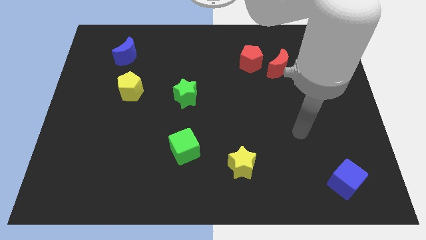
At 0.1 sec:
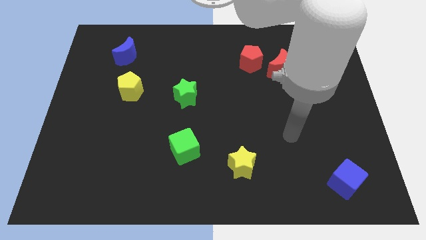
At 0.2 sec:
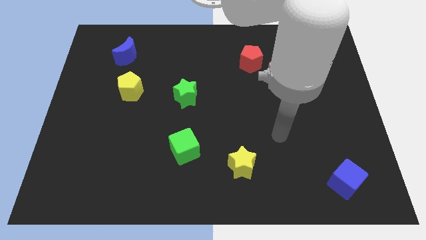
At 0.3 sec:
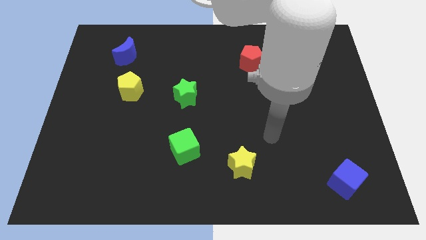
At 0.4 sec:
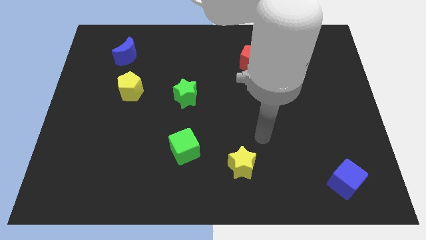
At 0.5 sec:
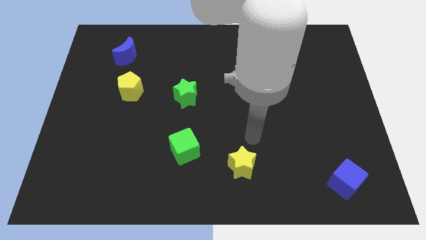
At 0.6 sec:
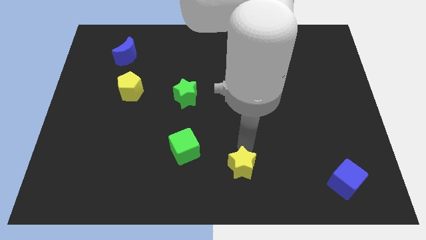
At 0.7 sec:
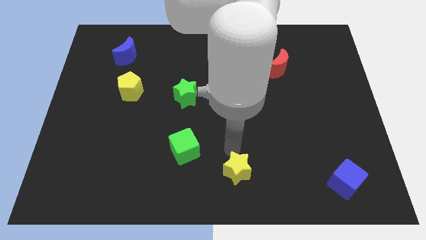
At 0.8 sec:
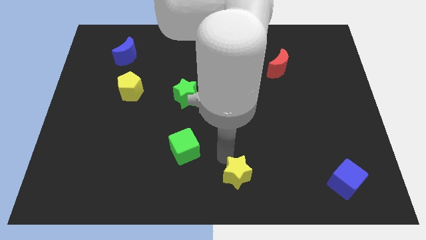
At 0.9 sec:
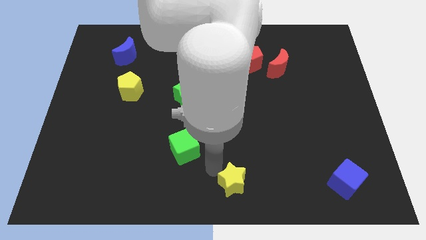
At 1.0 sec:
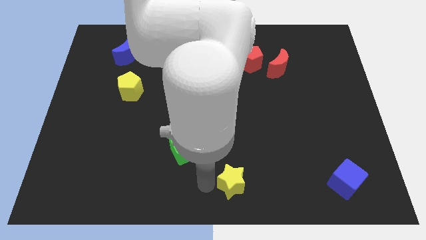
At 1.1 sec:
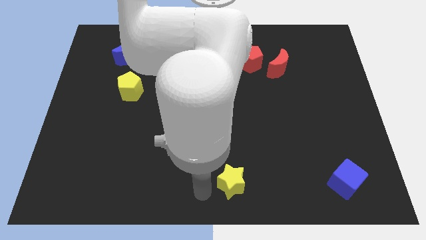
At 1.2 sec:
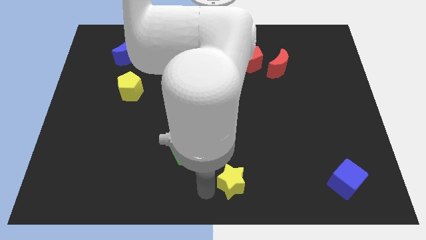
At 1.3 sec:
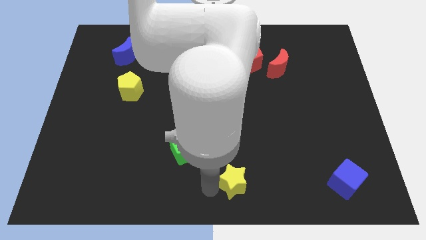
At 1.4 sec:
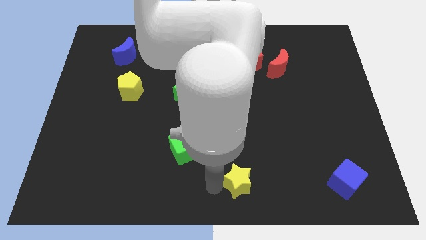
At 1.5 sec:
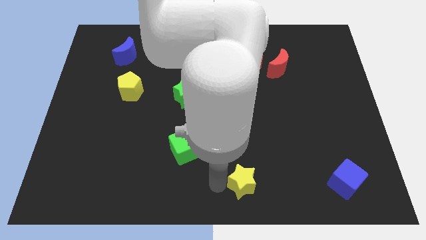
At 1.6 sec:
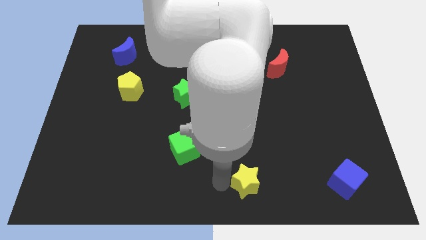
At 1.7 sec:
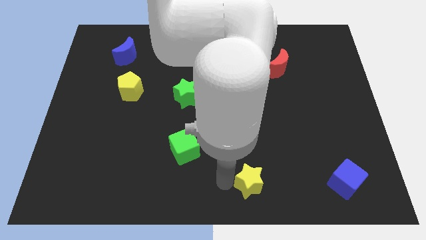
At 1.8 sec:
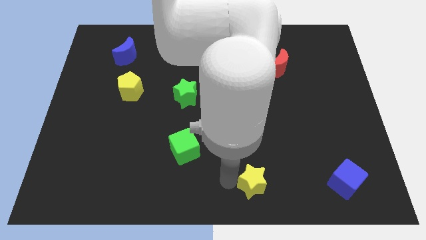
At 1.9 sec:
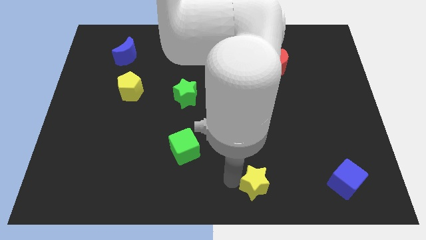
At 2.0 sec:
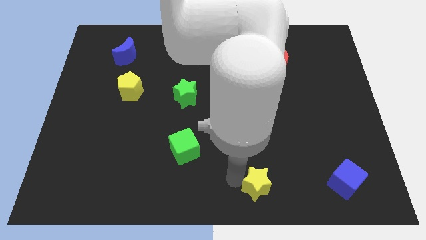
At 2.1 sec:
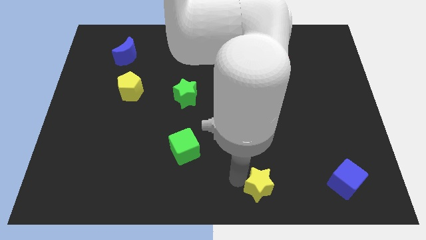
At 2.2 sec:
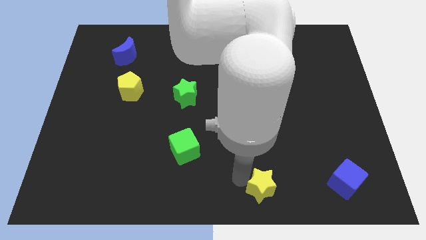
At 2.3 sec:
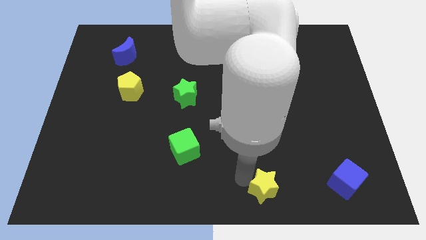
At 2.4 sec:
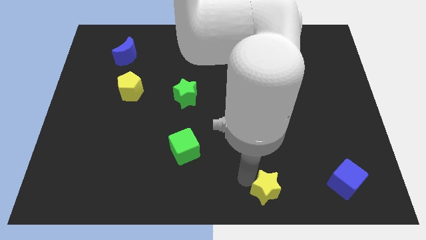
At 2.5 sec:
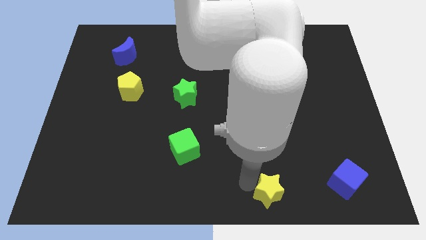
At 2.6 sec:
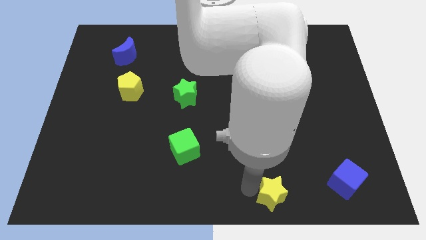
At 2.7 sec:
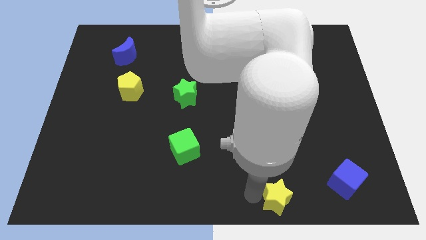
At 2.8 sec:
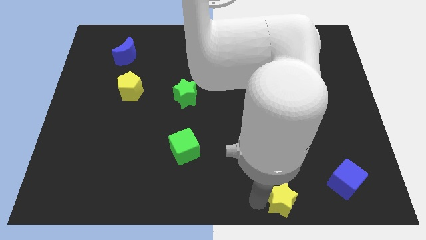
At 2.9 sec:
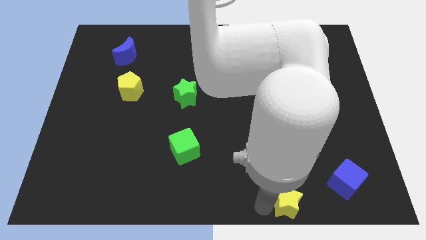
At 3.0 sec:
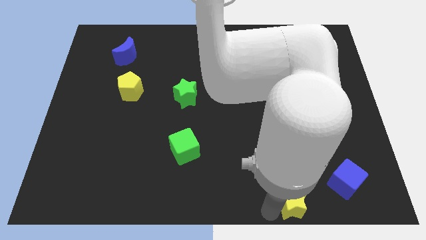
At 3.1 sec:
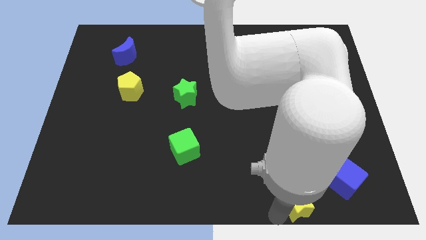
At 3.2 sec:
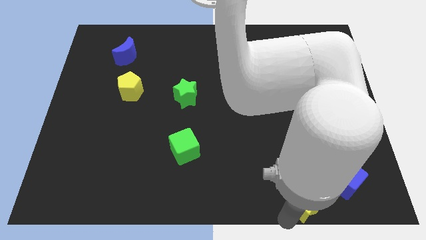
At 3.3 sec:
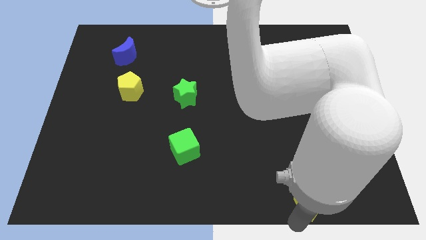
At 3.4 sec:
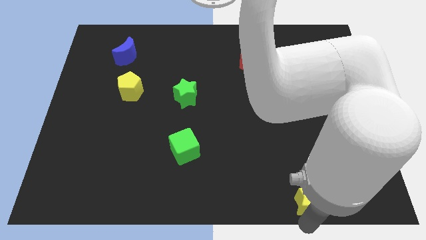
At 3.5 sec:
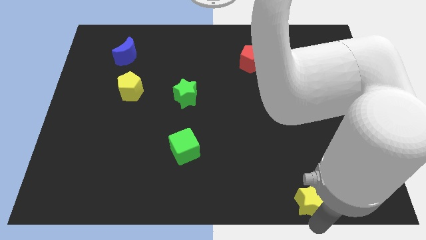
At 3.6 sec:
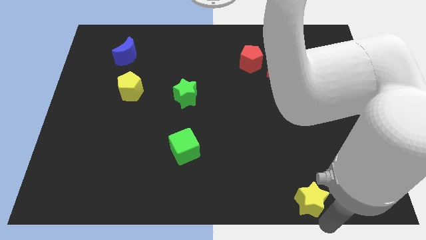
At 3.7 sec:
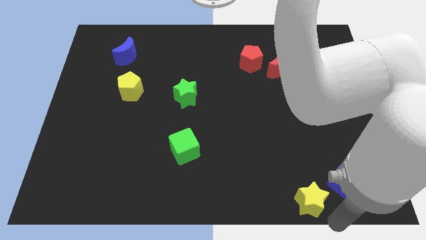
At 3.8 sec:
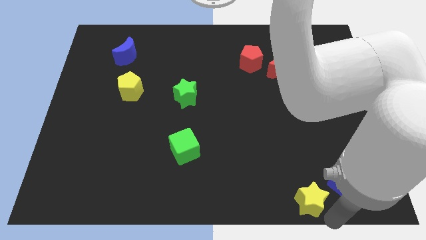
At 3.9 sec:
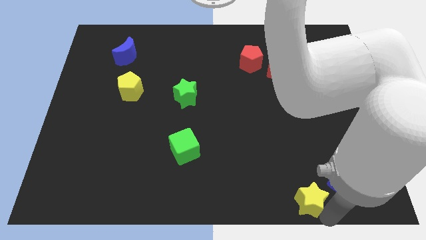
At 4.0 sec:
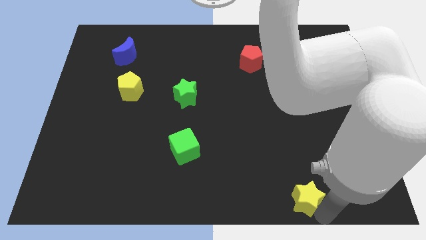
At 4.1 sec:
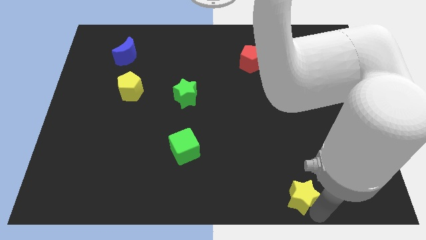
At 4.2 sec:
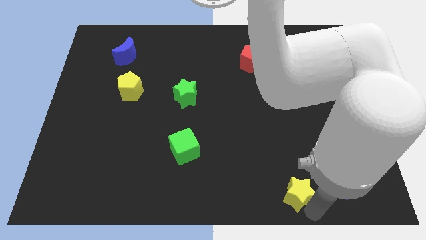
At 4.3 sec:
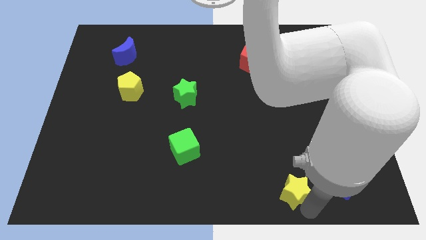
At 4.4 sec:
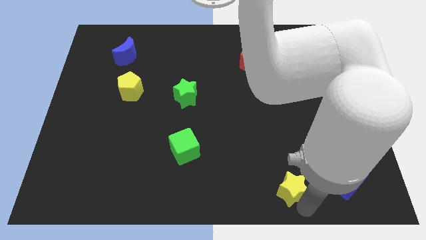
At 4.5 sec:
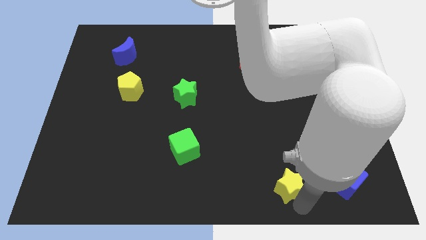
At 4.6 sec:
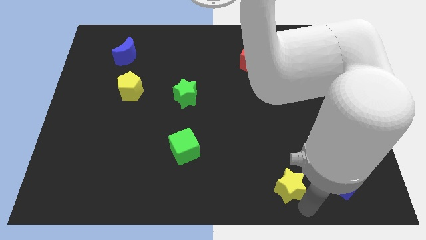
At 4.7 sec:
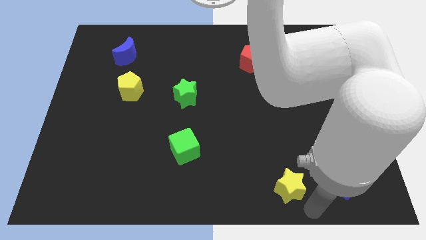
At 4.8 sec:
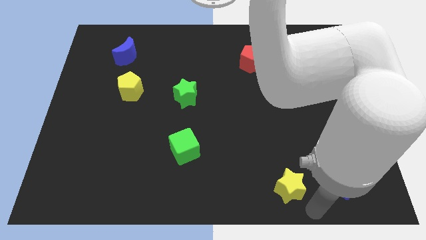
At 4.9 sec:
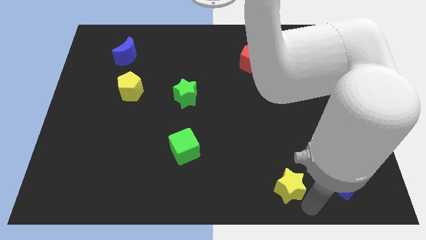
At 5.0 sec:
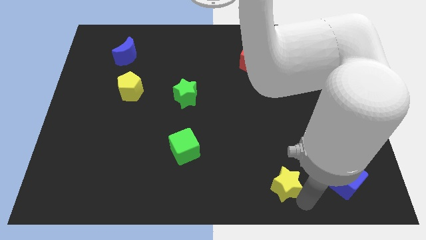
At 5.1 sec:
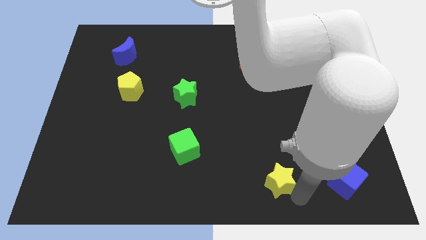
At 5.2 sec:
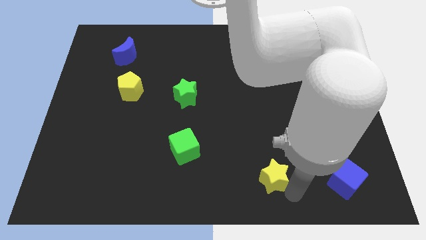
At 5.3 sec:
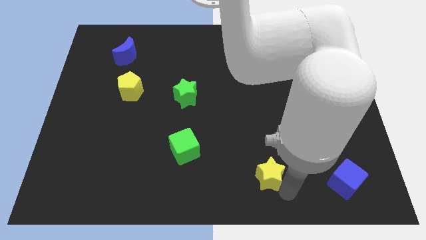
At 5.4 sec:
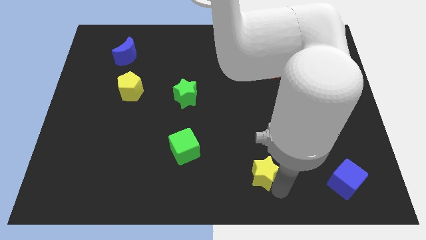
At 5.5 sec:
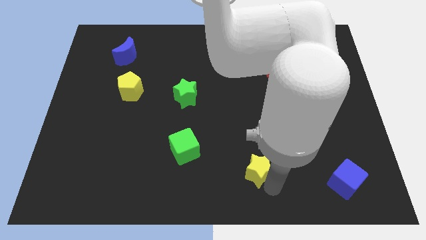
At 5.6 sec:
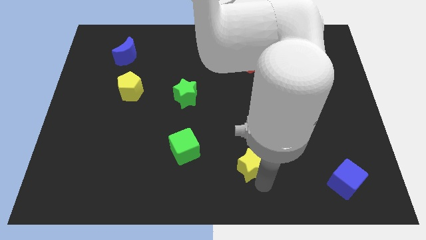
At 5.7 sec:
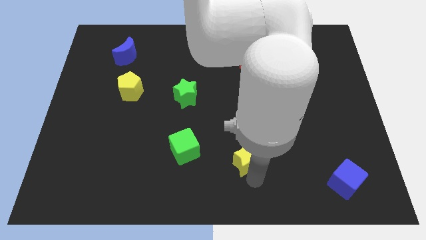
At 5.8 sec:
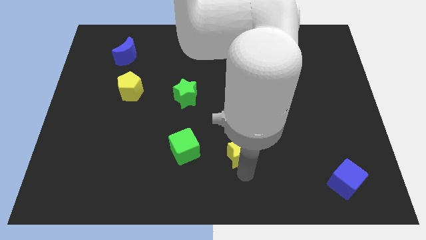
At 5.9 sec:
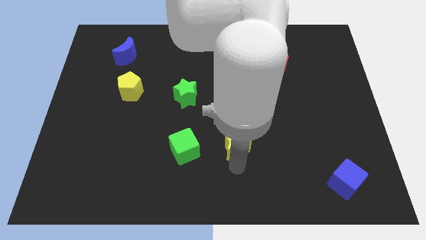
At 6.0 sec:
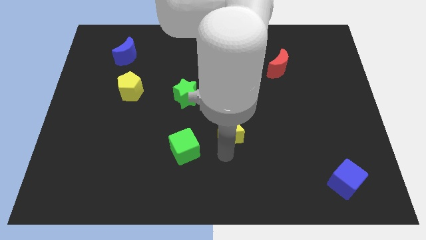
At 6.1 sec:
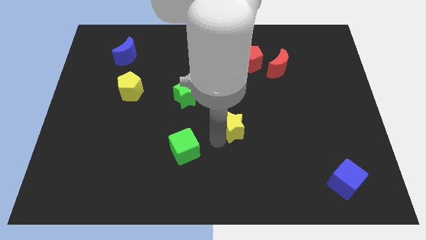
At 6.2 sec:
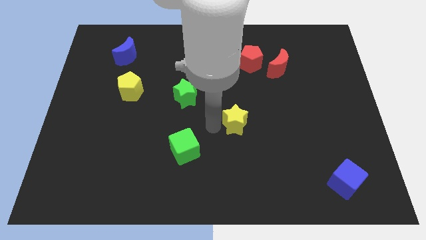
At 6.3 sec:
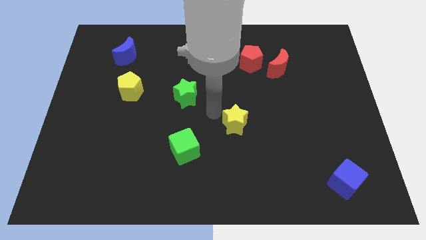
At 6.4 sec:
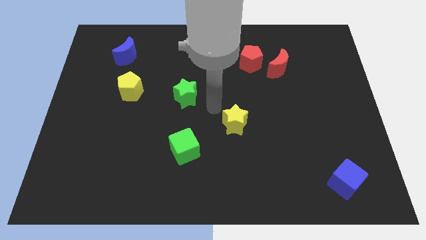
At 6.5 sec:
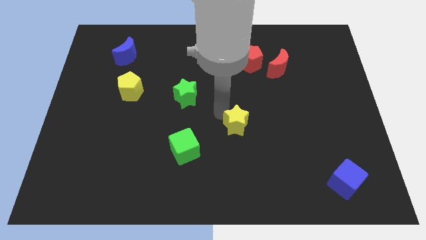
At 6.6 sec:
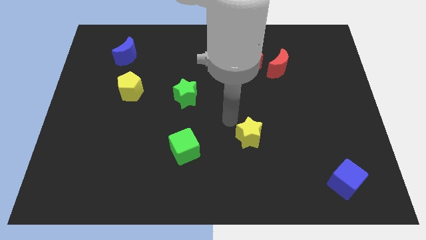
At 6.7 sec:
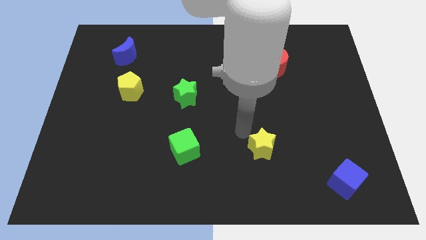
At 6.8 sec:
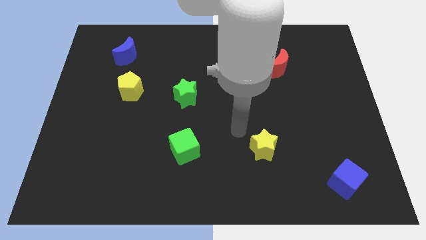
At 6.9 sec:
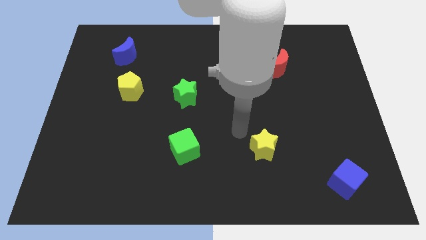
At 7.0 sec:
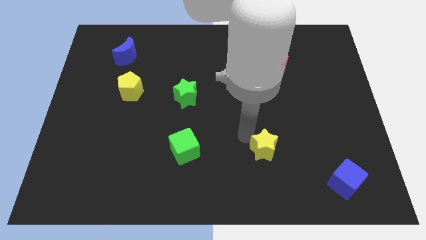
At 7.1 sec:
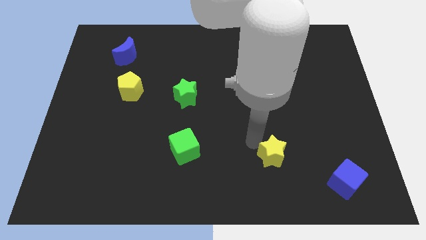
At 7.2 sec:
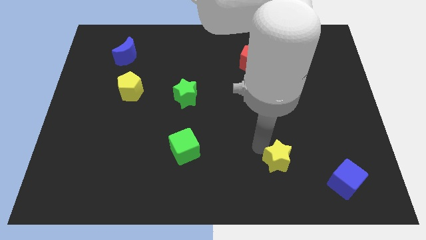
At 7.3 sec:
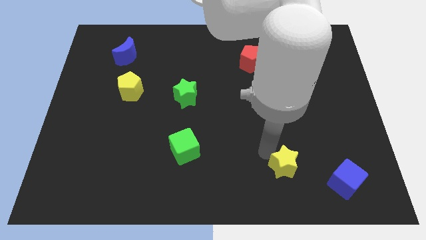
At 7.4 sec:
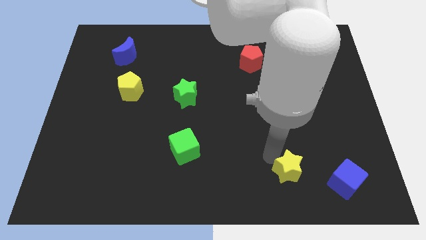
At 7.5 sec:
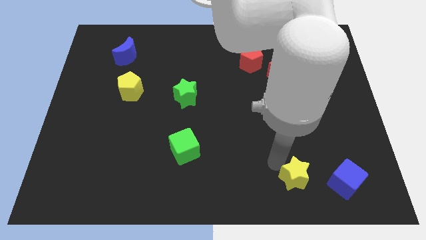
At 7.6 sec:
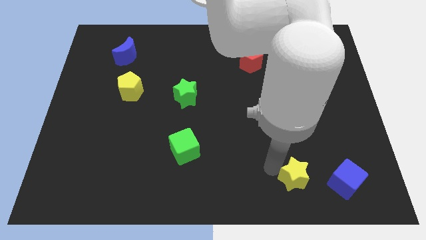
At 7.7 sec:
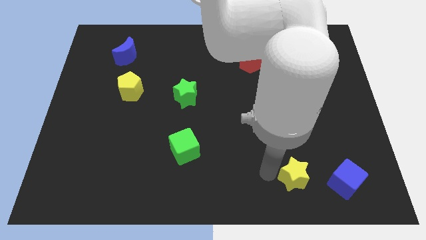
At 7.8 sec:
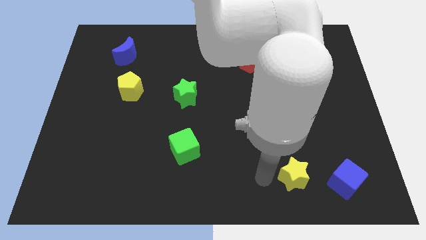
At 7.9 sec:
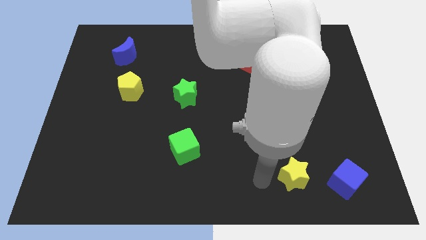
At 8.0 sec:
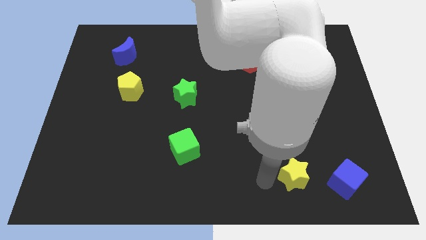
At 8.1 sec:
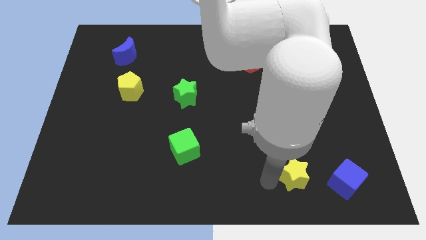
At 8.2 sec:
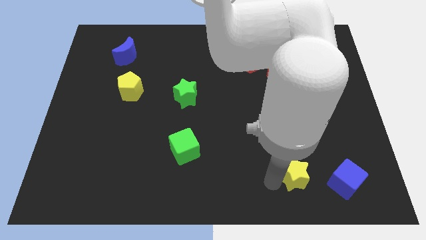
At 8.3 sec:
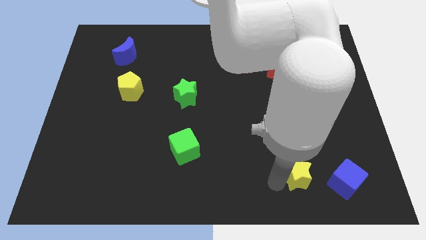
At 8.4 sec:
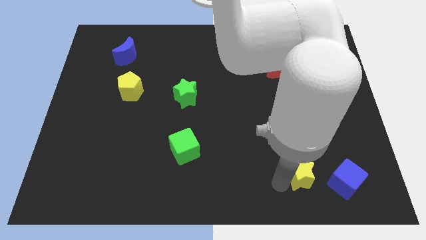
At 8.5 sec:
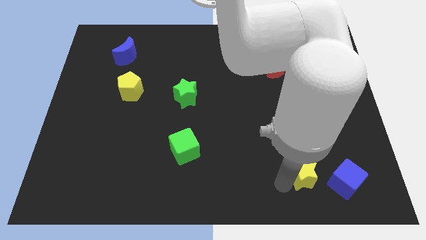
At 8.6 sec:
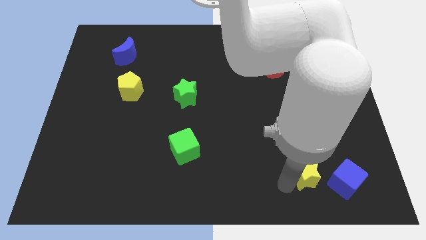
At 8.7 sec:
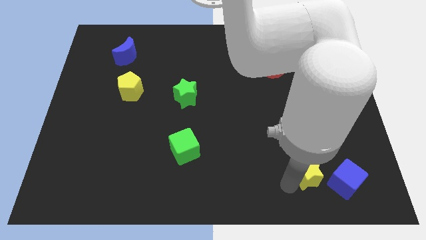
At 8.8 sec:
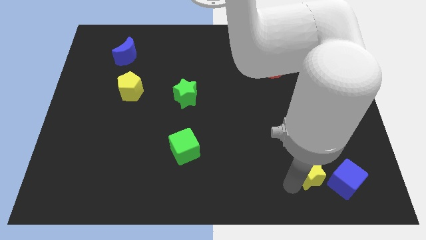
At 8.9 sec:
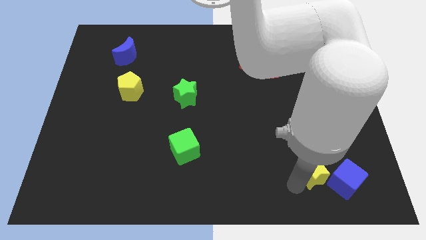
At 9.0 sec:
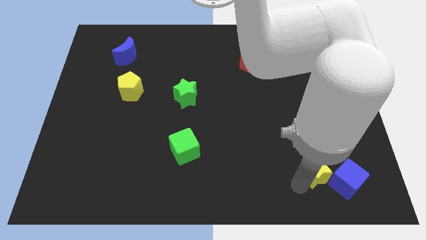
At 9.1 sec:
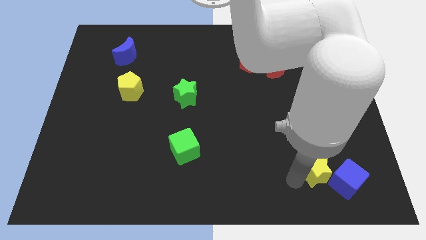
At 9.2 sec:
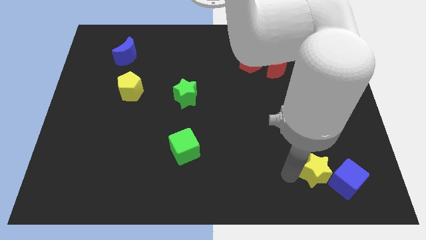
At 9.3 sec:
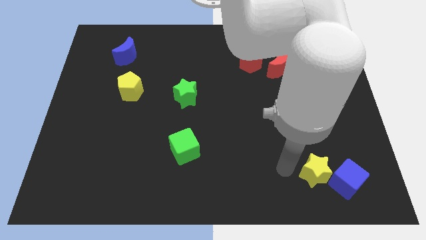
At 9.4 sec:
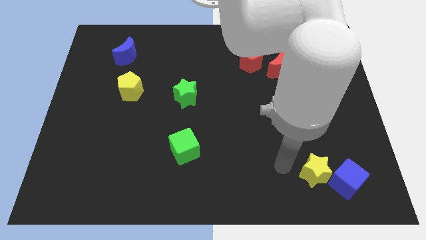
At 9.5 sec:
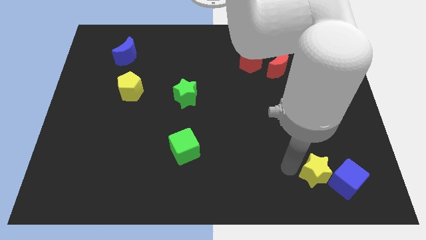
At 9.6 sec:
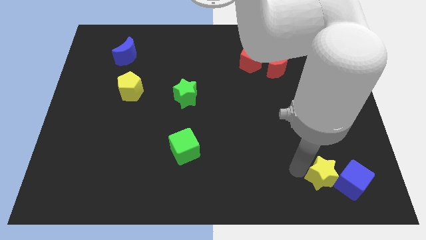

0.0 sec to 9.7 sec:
slide the yellow star next to the blue cube
